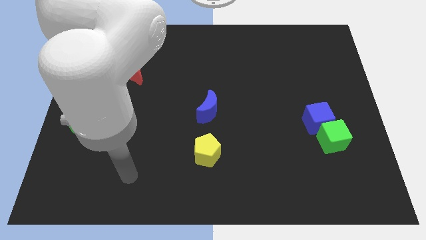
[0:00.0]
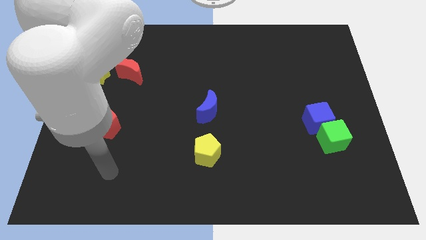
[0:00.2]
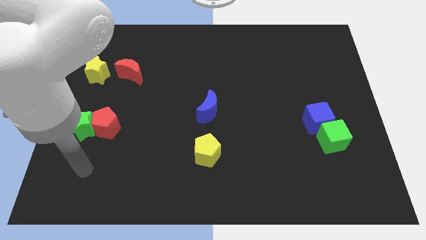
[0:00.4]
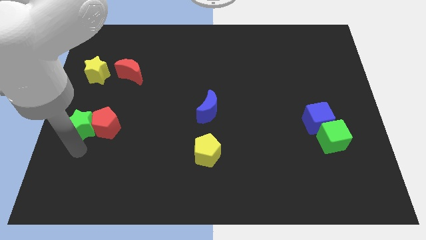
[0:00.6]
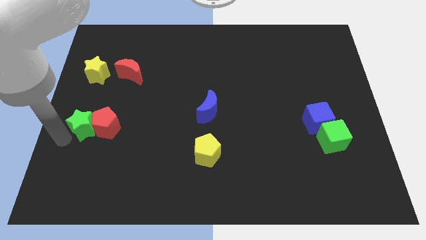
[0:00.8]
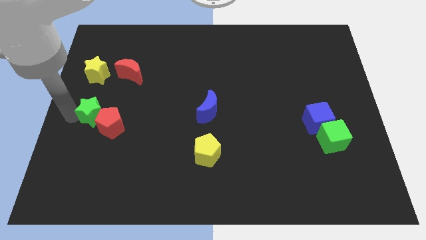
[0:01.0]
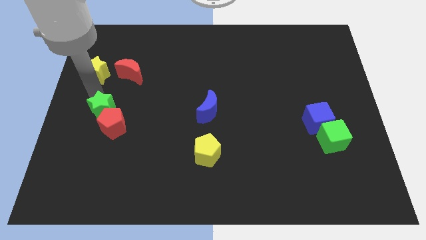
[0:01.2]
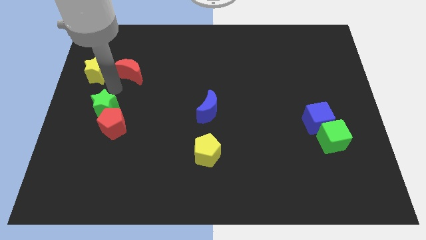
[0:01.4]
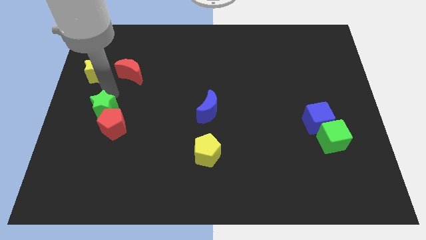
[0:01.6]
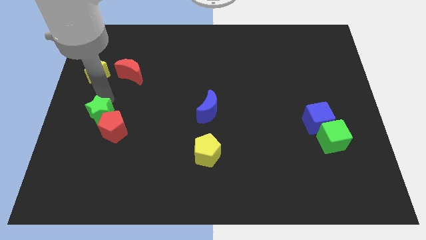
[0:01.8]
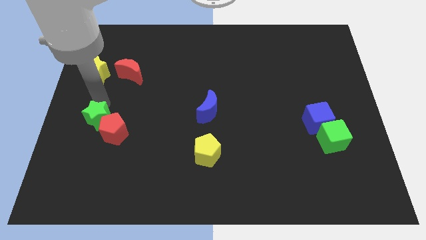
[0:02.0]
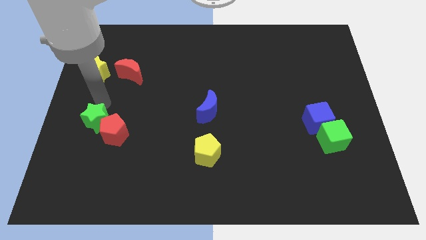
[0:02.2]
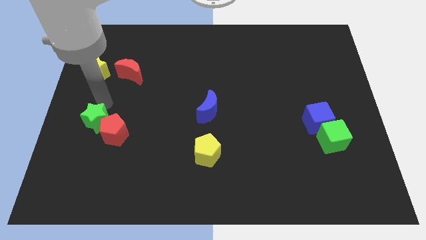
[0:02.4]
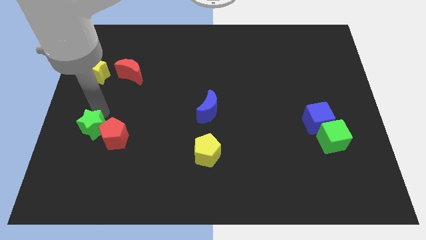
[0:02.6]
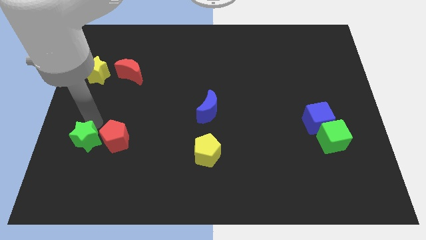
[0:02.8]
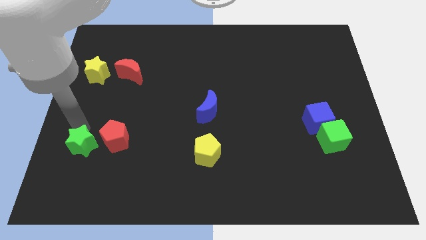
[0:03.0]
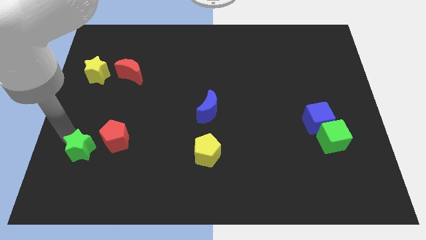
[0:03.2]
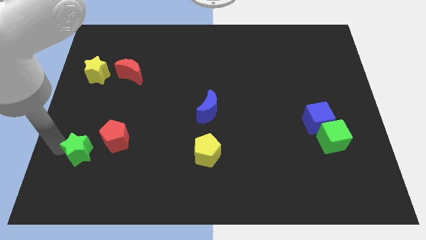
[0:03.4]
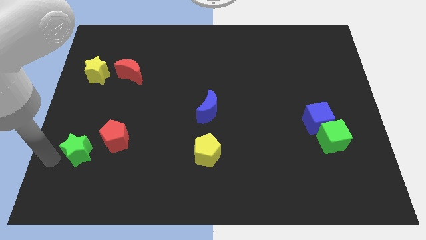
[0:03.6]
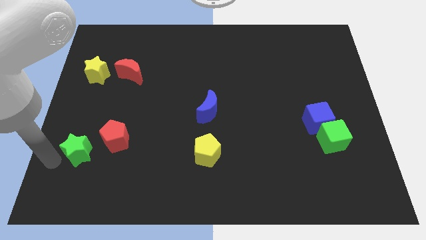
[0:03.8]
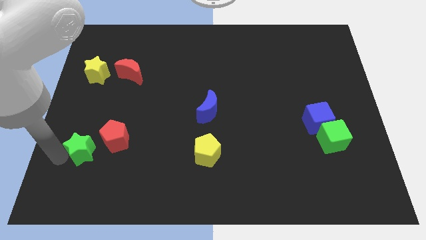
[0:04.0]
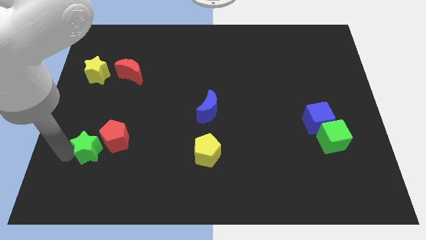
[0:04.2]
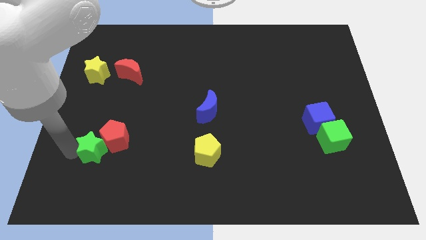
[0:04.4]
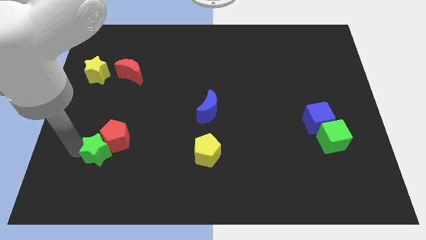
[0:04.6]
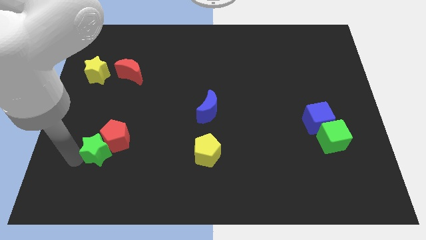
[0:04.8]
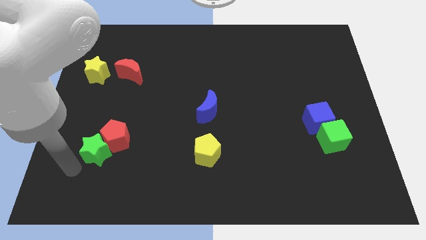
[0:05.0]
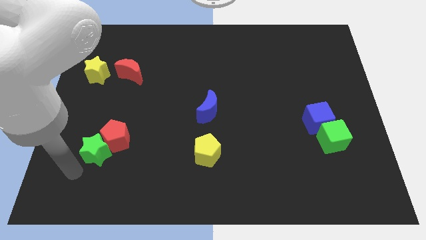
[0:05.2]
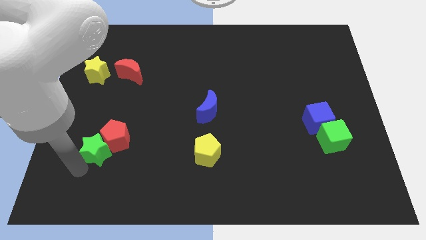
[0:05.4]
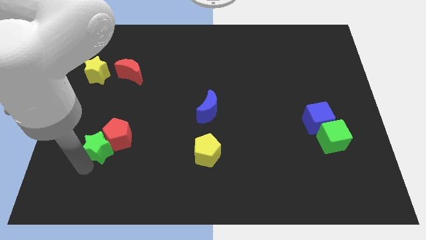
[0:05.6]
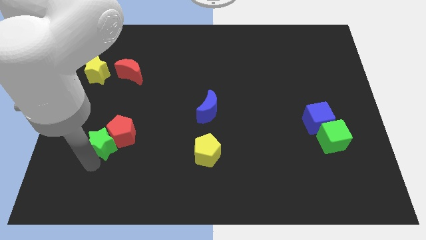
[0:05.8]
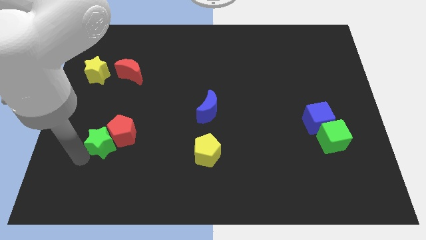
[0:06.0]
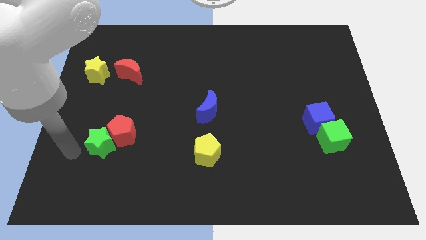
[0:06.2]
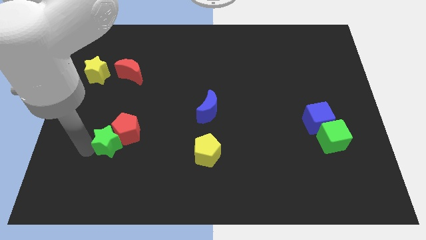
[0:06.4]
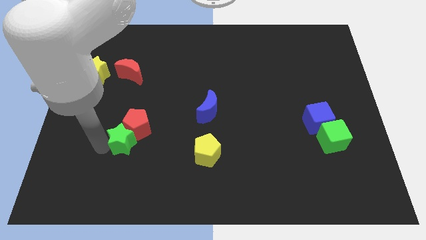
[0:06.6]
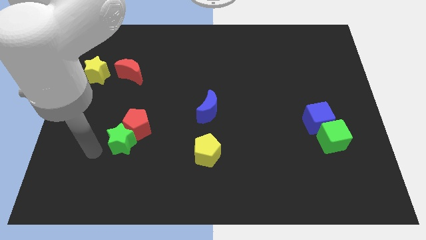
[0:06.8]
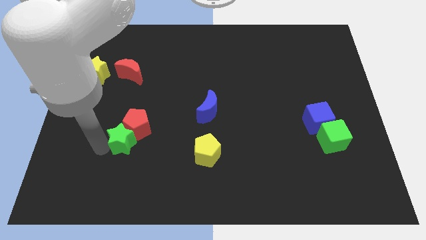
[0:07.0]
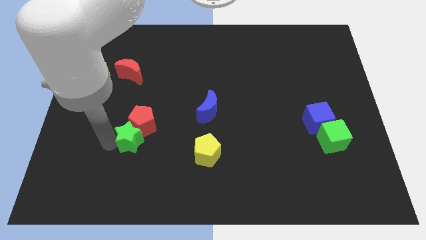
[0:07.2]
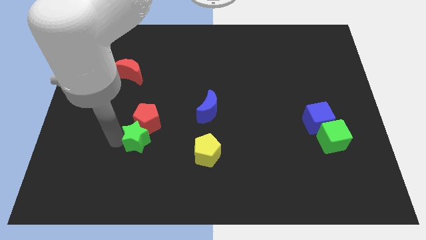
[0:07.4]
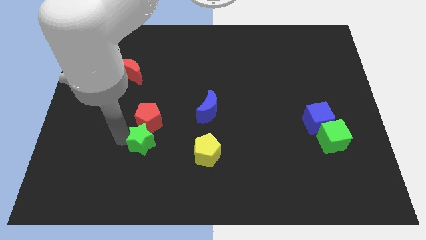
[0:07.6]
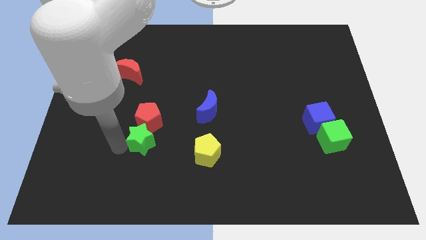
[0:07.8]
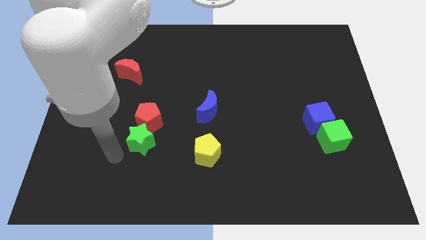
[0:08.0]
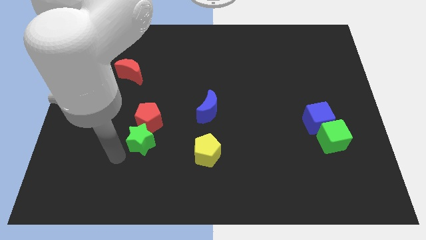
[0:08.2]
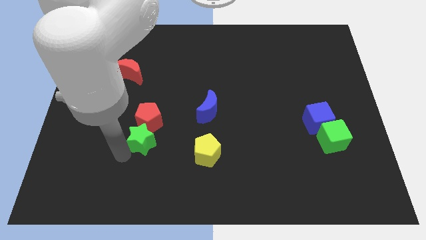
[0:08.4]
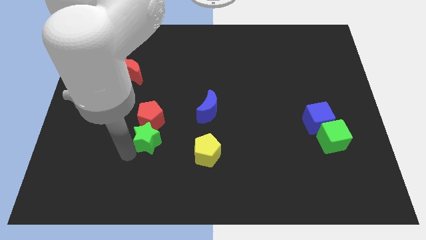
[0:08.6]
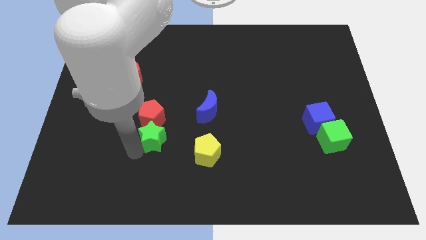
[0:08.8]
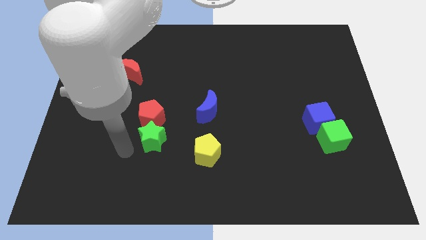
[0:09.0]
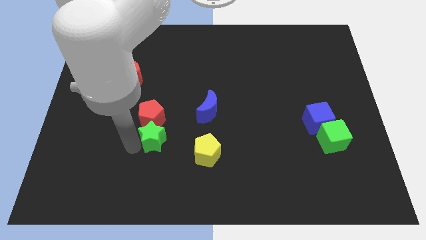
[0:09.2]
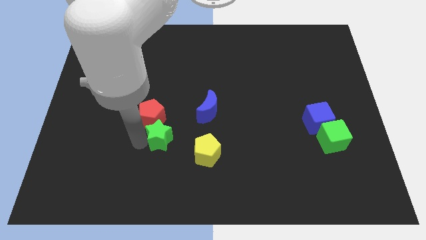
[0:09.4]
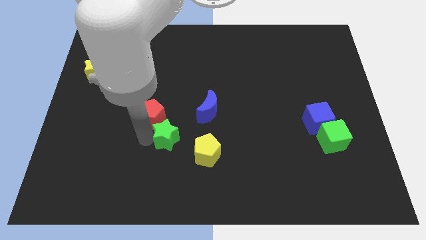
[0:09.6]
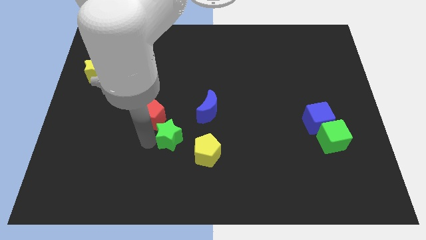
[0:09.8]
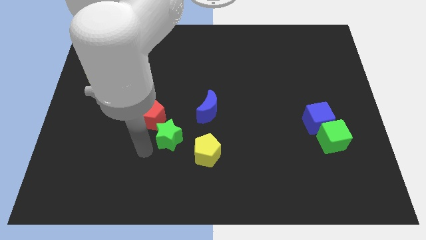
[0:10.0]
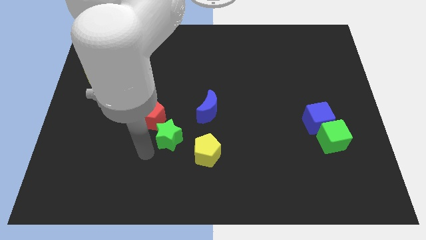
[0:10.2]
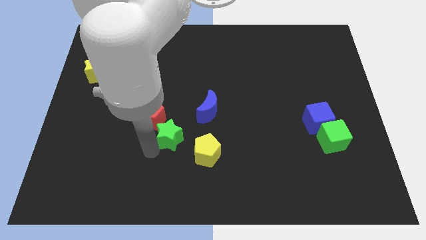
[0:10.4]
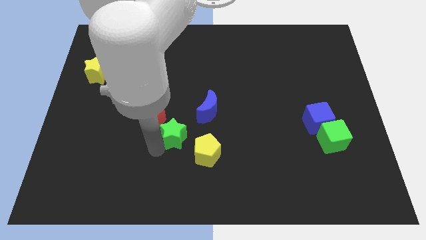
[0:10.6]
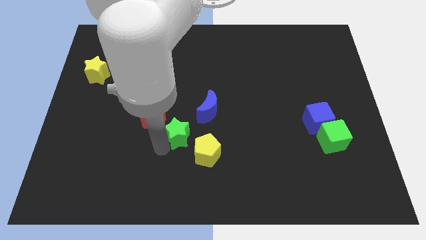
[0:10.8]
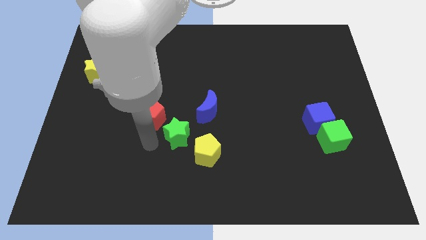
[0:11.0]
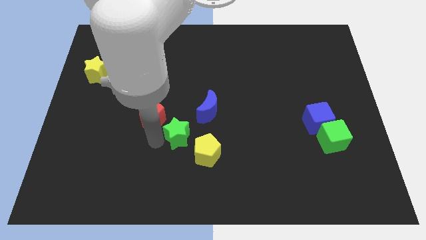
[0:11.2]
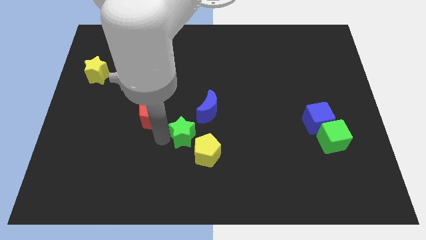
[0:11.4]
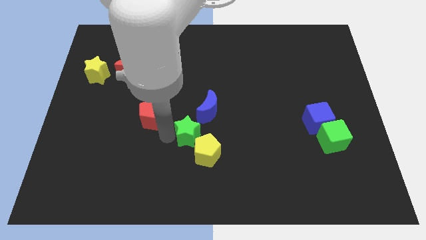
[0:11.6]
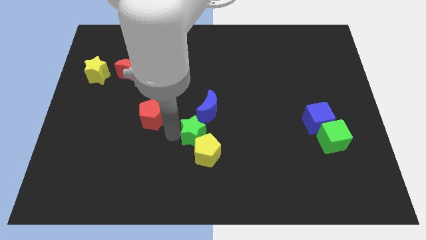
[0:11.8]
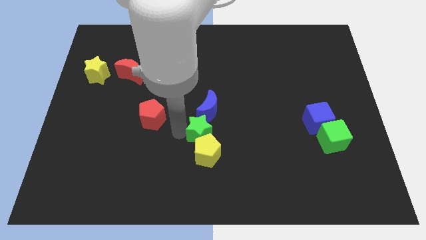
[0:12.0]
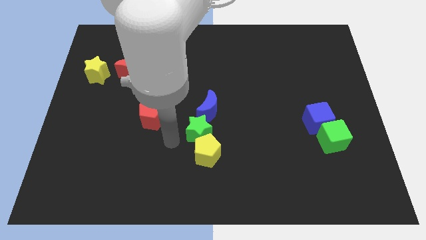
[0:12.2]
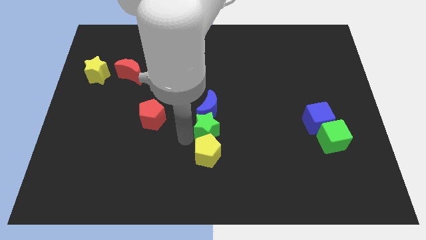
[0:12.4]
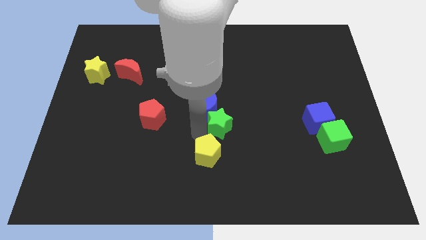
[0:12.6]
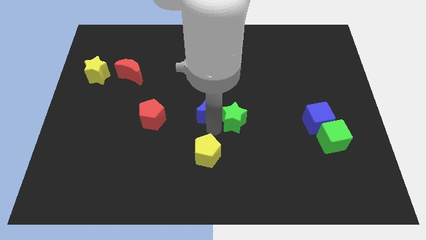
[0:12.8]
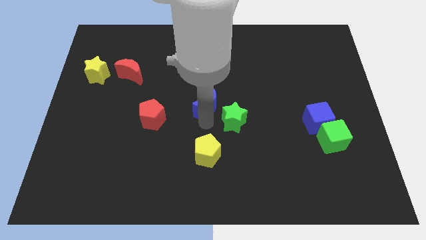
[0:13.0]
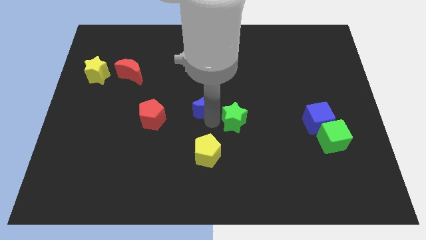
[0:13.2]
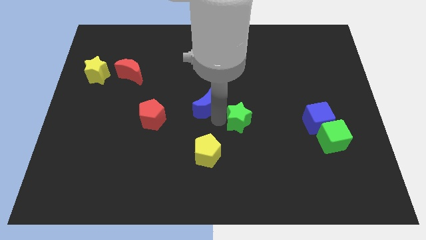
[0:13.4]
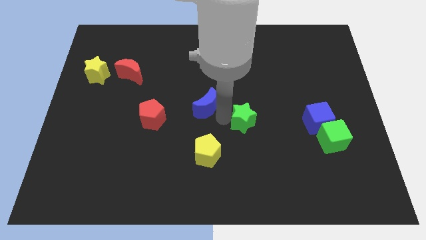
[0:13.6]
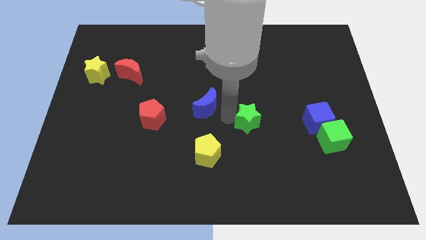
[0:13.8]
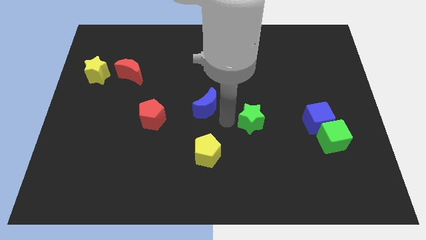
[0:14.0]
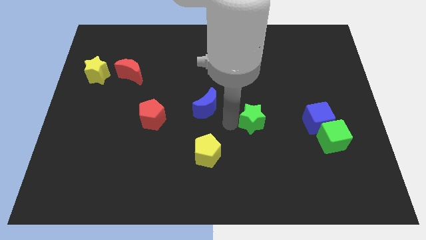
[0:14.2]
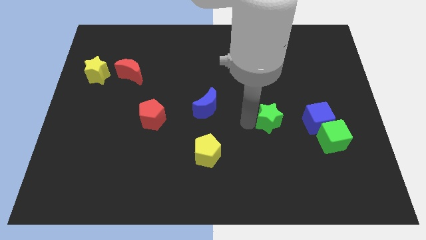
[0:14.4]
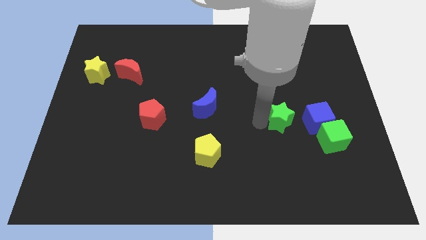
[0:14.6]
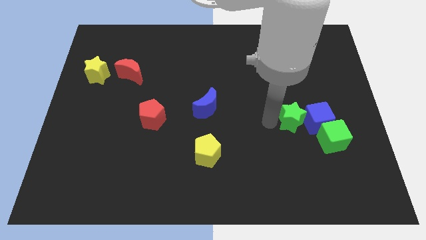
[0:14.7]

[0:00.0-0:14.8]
put the green star towards the blue cube

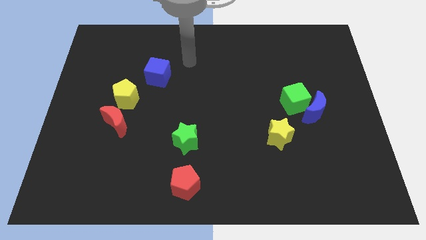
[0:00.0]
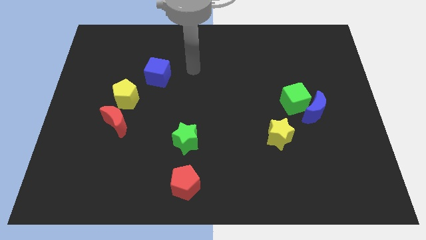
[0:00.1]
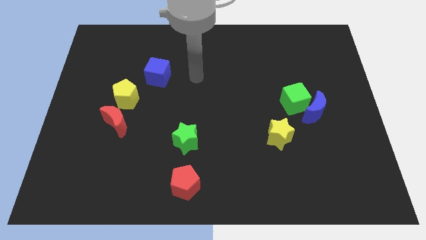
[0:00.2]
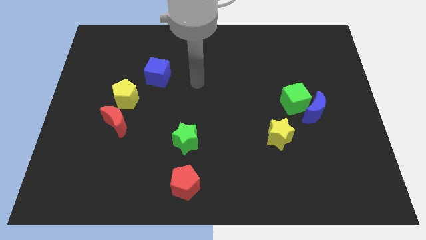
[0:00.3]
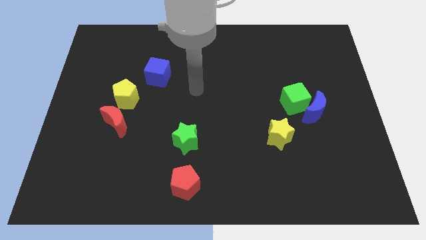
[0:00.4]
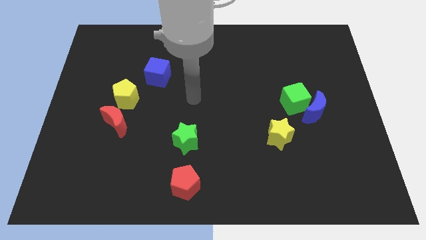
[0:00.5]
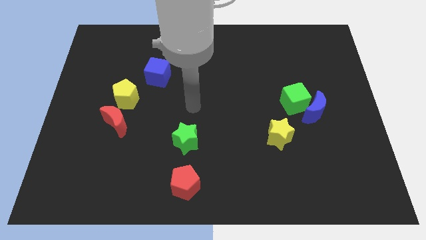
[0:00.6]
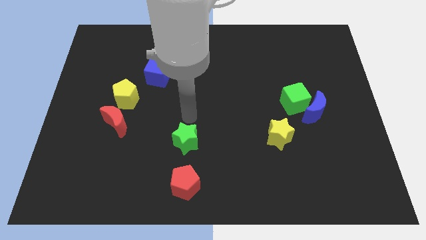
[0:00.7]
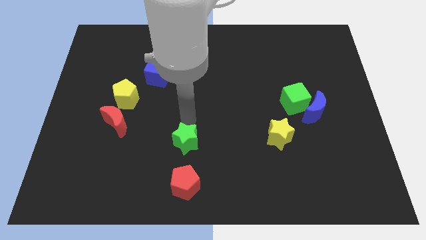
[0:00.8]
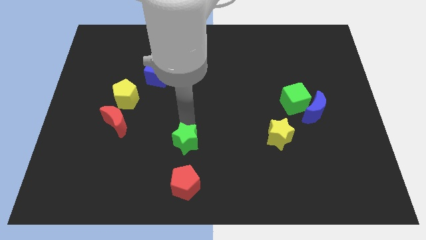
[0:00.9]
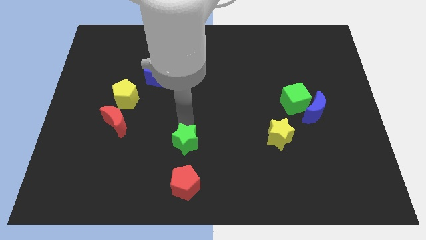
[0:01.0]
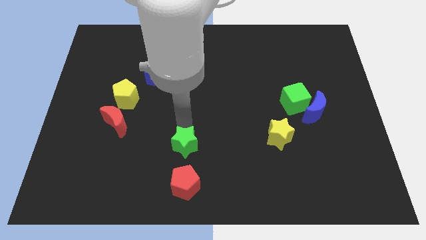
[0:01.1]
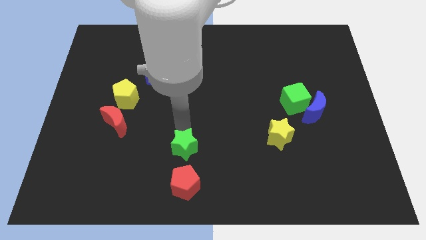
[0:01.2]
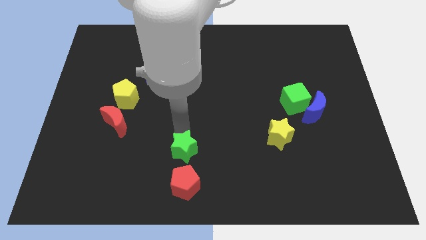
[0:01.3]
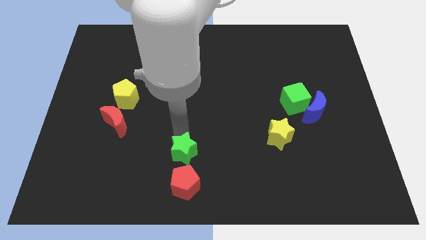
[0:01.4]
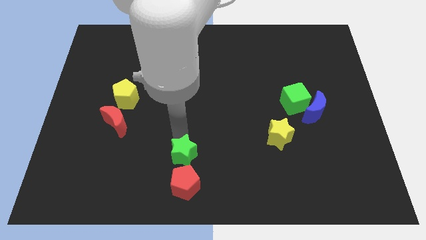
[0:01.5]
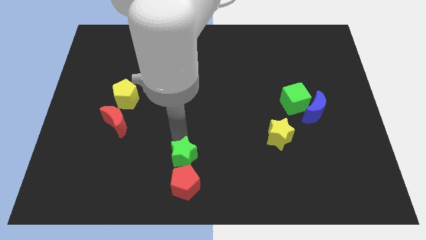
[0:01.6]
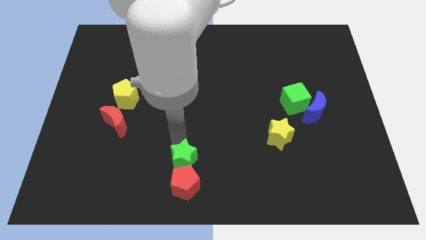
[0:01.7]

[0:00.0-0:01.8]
put the green star towards the red pentagon
